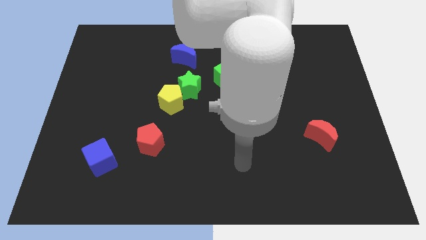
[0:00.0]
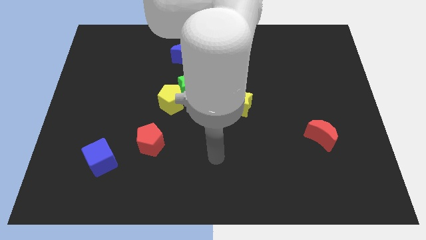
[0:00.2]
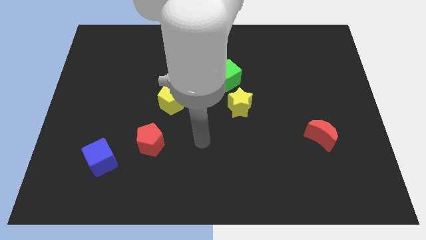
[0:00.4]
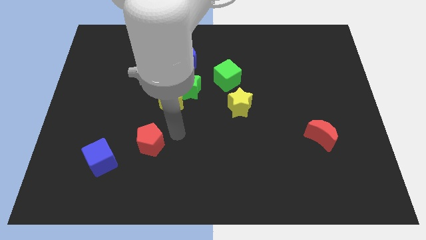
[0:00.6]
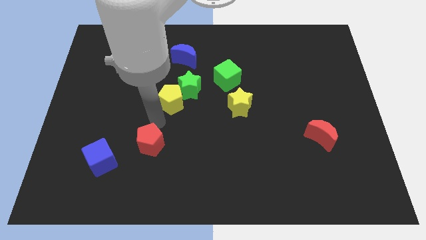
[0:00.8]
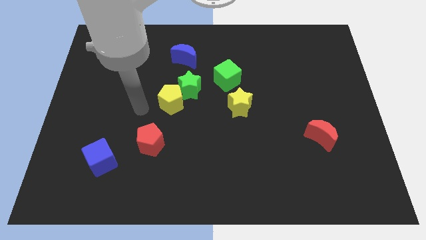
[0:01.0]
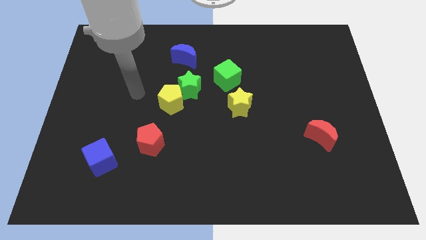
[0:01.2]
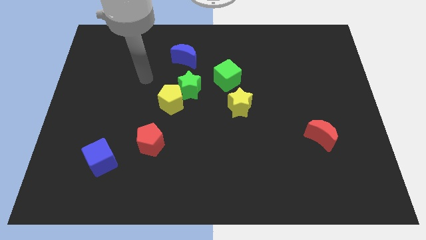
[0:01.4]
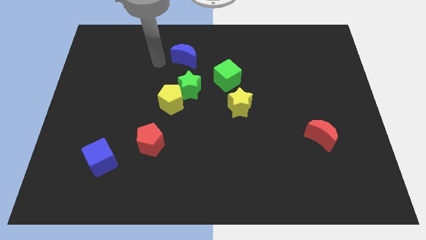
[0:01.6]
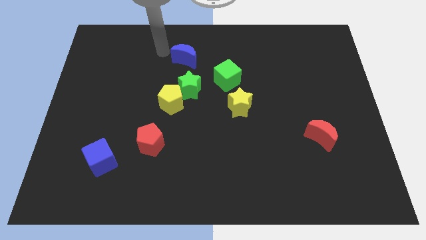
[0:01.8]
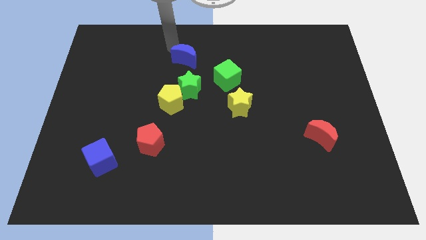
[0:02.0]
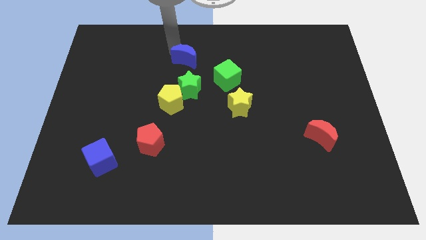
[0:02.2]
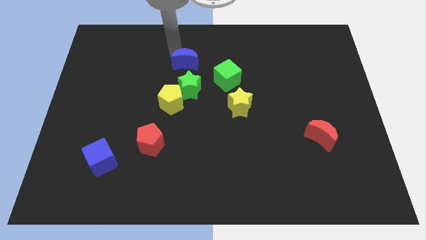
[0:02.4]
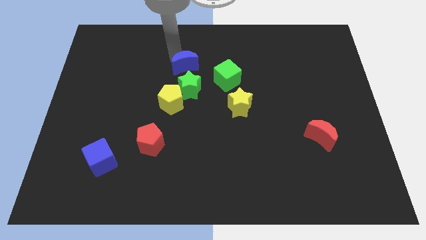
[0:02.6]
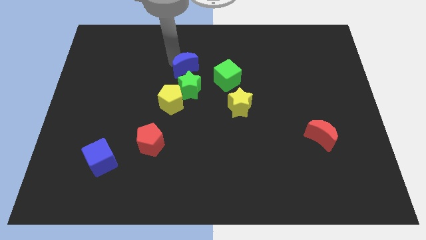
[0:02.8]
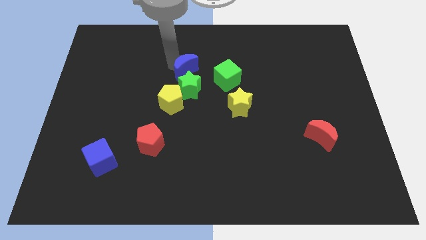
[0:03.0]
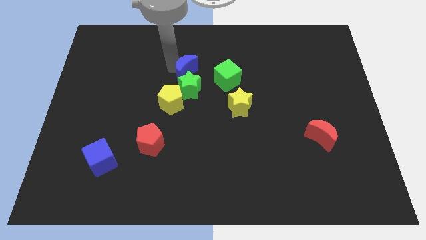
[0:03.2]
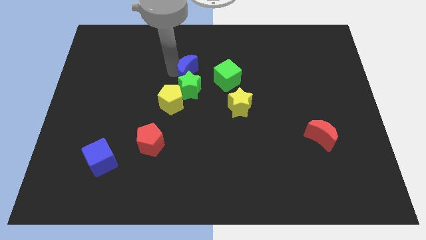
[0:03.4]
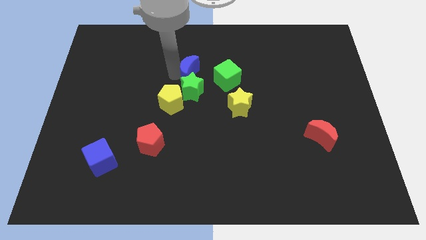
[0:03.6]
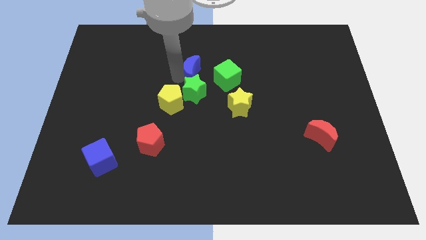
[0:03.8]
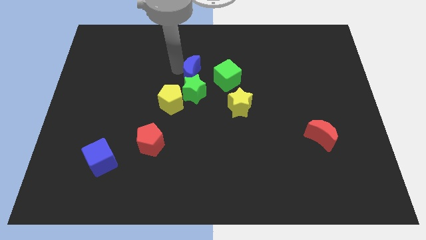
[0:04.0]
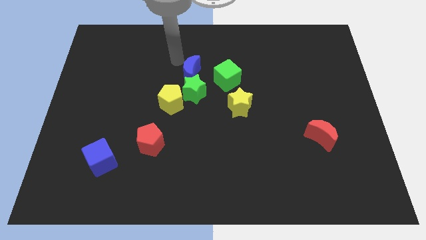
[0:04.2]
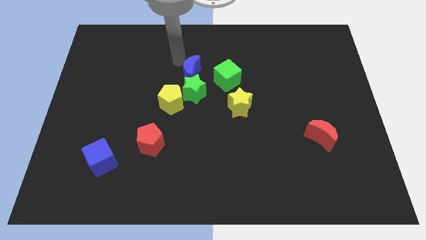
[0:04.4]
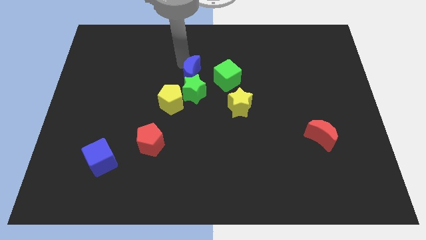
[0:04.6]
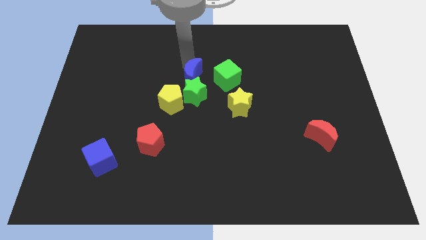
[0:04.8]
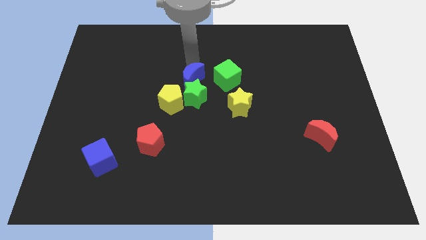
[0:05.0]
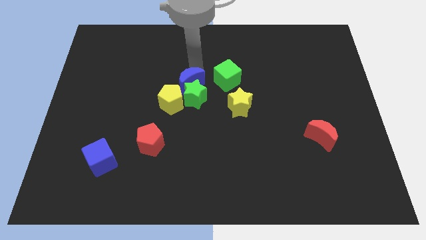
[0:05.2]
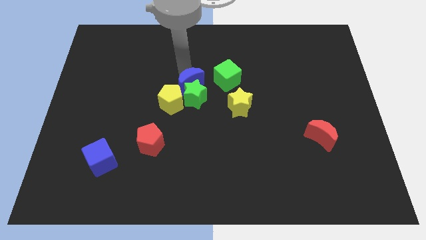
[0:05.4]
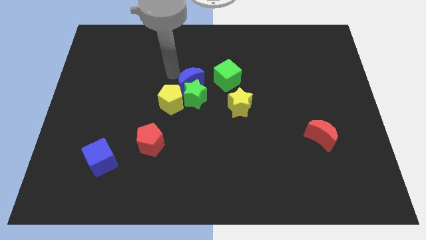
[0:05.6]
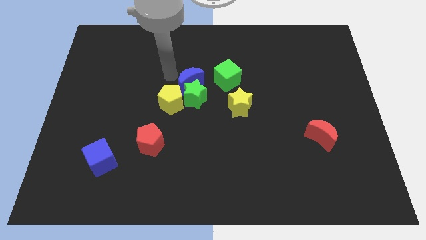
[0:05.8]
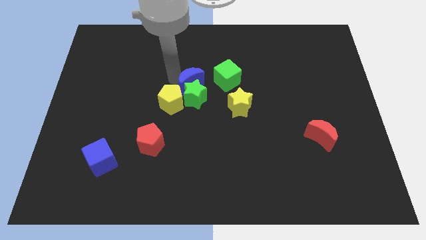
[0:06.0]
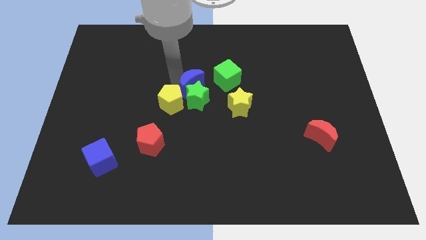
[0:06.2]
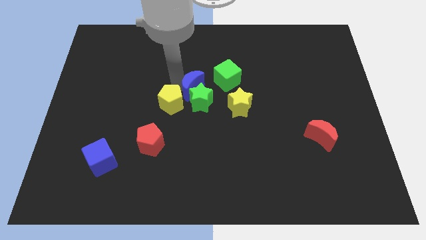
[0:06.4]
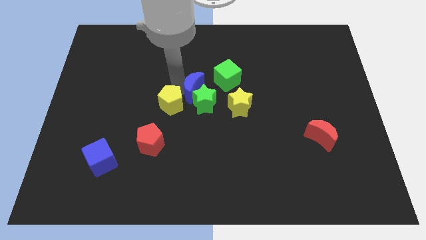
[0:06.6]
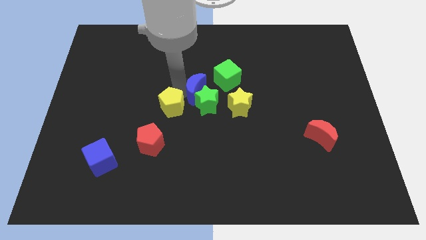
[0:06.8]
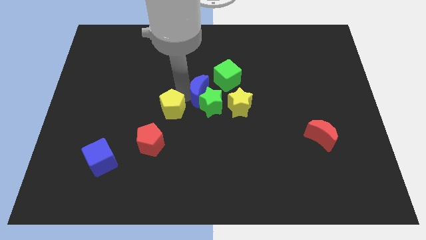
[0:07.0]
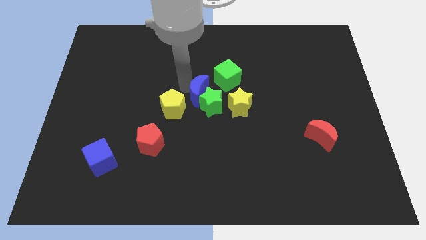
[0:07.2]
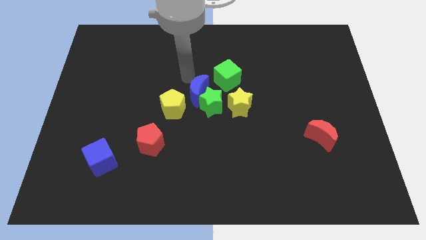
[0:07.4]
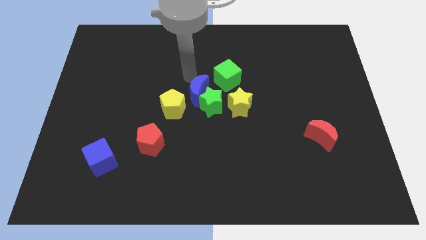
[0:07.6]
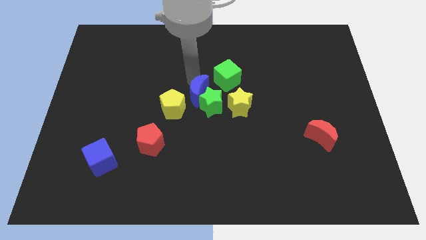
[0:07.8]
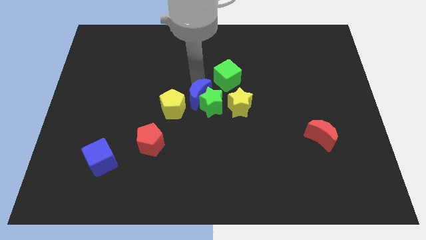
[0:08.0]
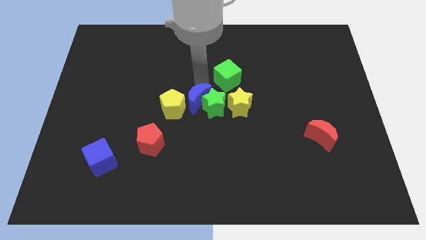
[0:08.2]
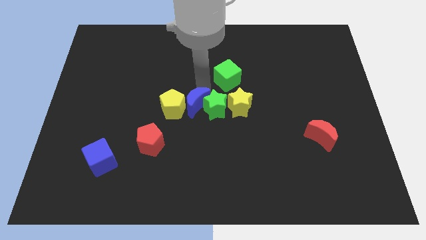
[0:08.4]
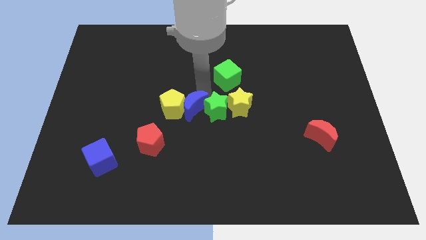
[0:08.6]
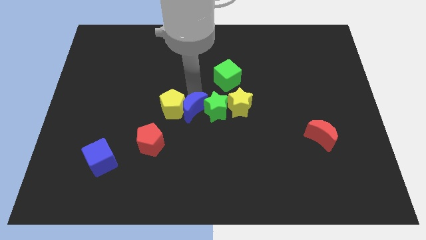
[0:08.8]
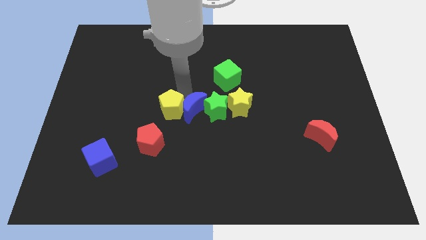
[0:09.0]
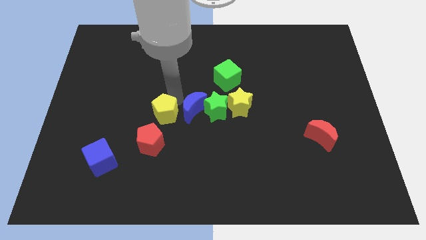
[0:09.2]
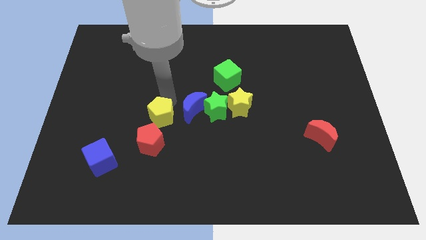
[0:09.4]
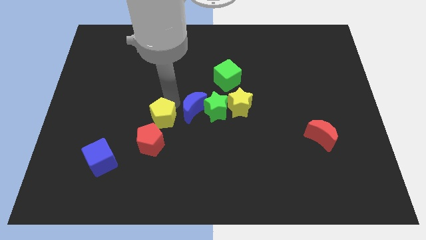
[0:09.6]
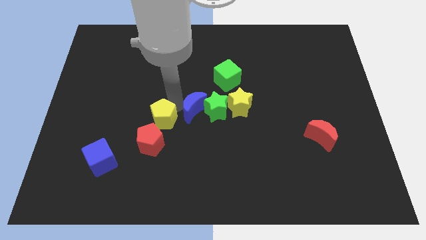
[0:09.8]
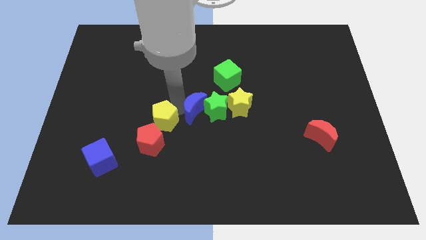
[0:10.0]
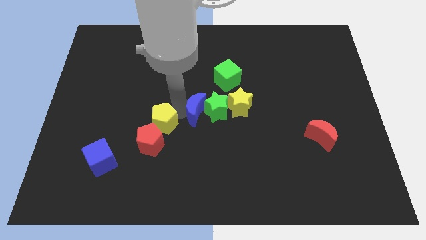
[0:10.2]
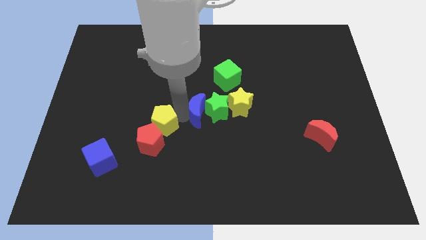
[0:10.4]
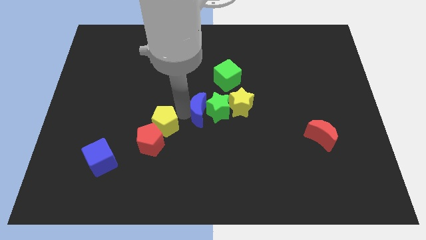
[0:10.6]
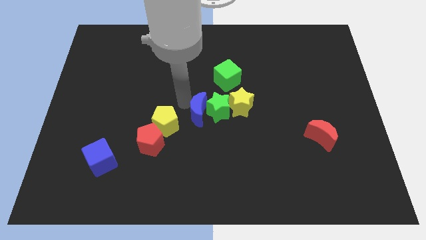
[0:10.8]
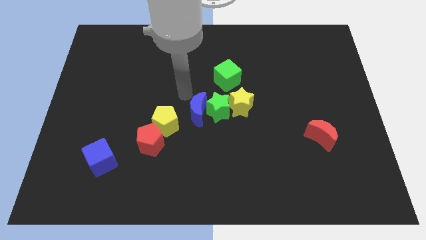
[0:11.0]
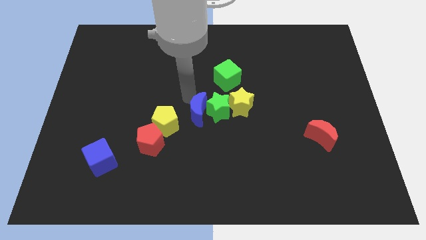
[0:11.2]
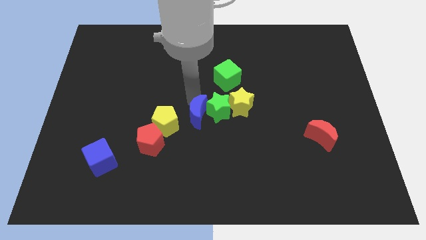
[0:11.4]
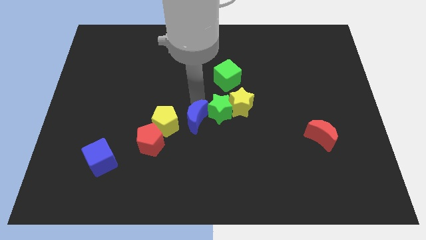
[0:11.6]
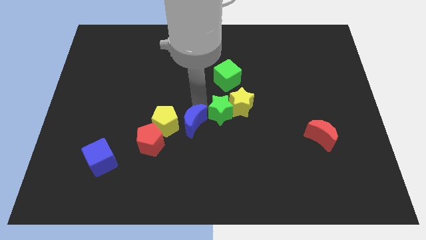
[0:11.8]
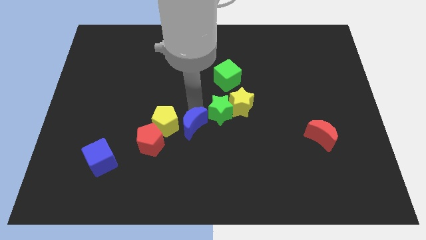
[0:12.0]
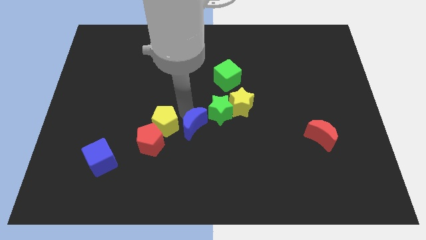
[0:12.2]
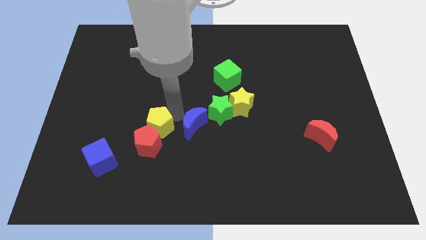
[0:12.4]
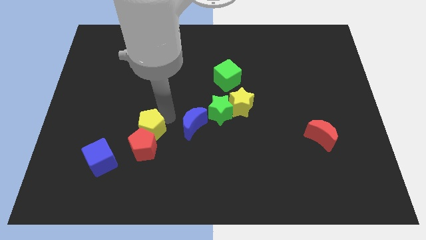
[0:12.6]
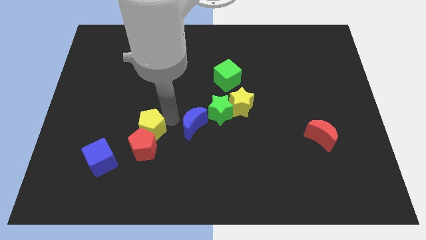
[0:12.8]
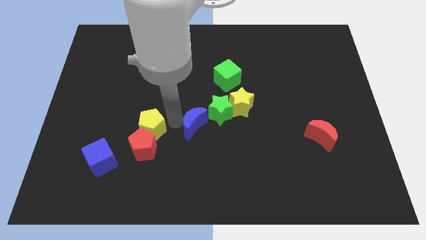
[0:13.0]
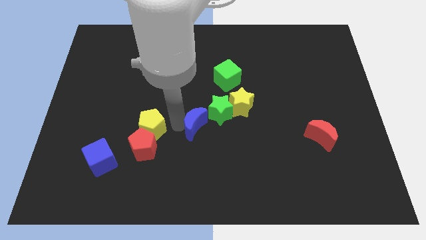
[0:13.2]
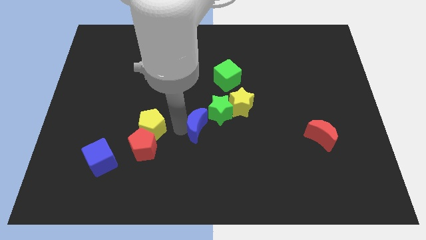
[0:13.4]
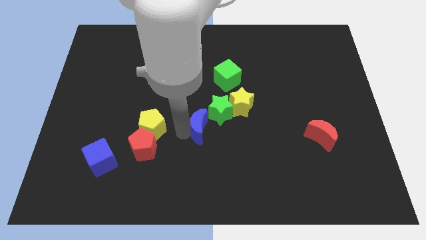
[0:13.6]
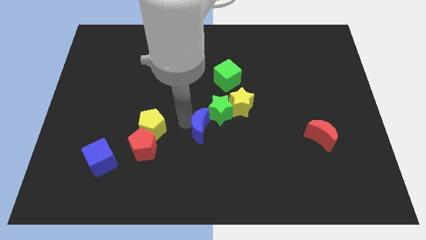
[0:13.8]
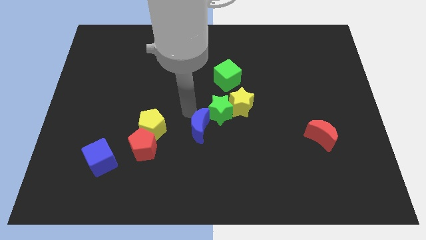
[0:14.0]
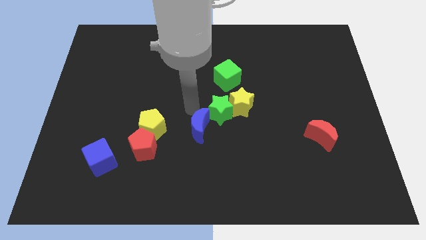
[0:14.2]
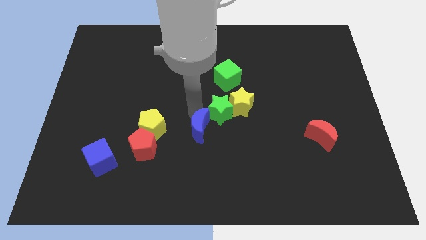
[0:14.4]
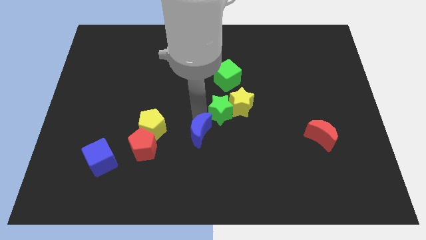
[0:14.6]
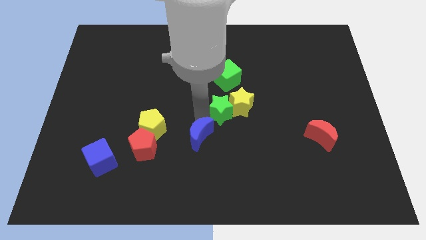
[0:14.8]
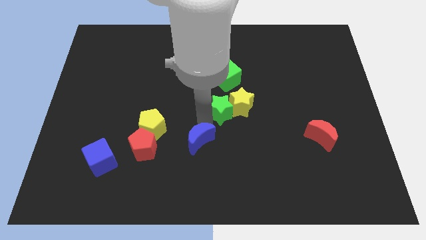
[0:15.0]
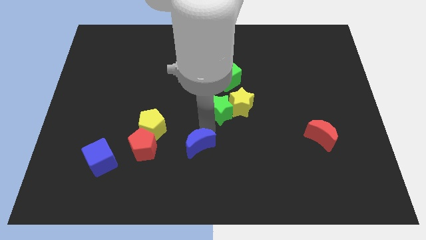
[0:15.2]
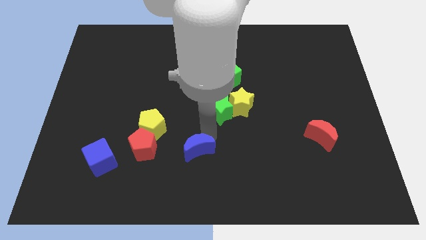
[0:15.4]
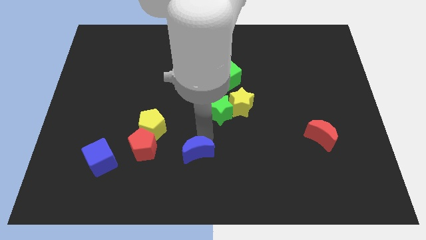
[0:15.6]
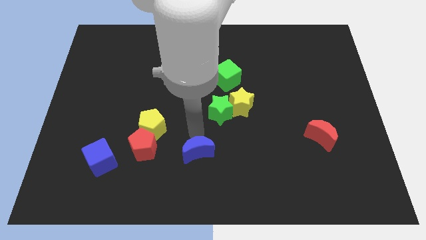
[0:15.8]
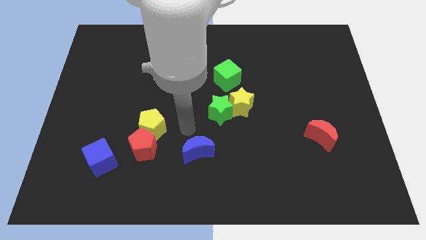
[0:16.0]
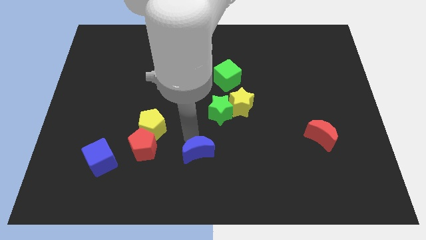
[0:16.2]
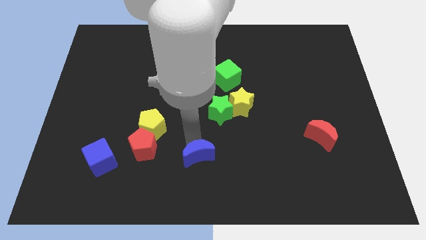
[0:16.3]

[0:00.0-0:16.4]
slide the blue moon to the bottom

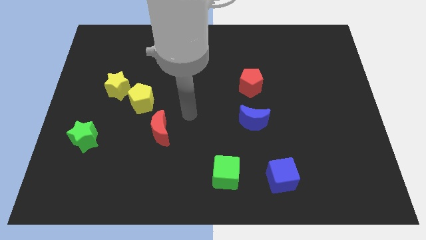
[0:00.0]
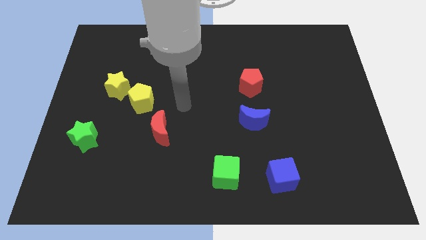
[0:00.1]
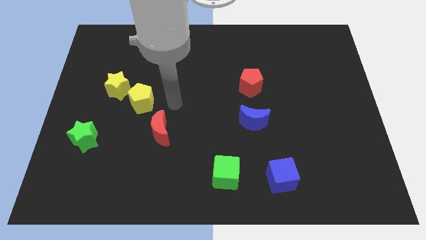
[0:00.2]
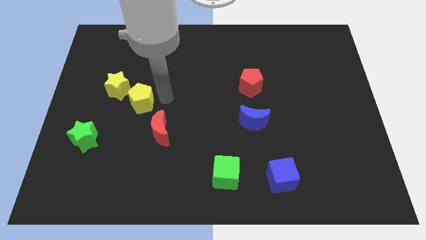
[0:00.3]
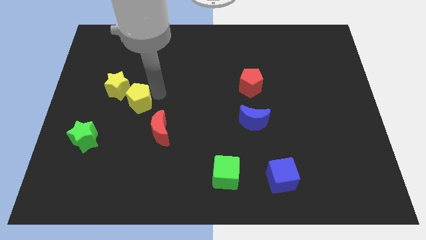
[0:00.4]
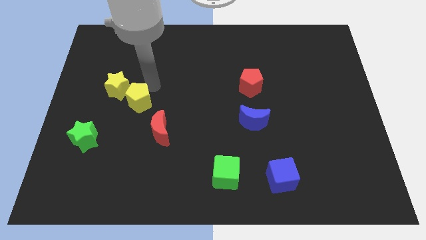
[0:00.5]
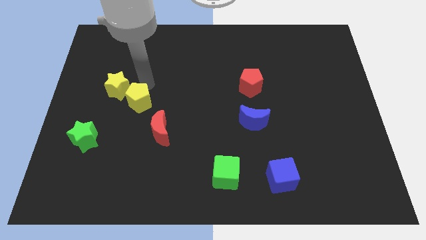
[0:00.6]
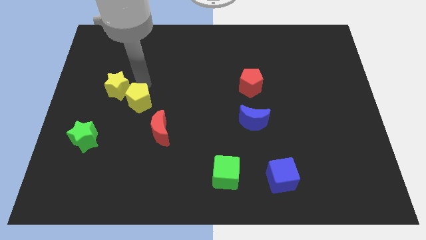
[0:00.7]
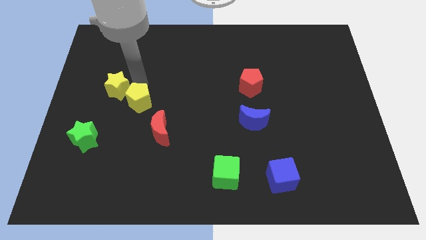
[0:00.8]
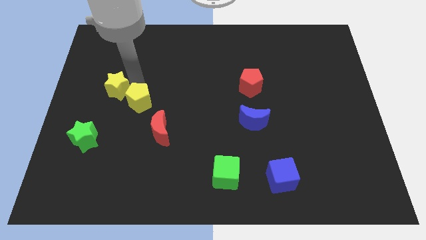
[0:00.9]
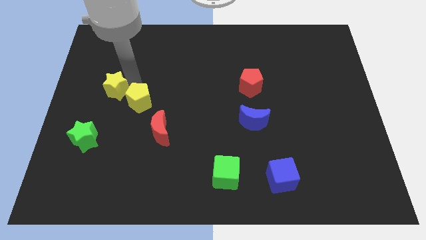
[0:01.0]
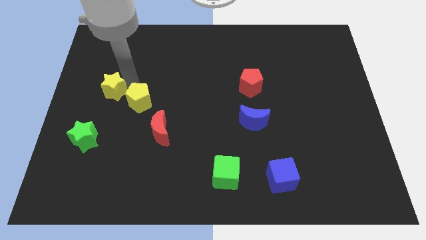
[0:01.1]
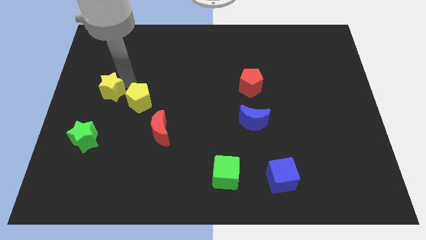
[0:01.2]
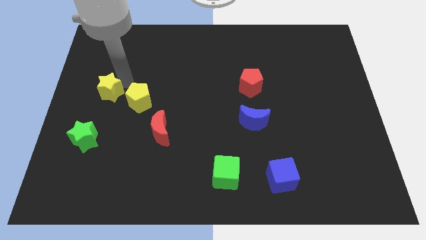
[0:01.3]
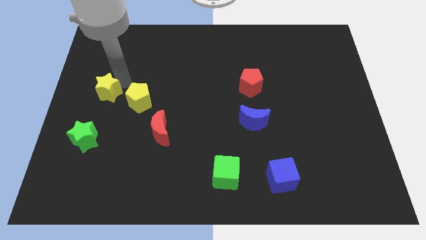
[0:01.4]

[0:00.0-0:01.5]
slide the yellow star to the center left
